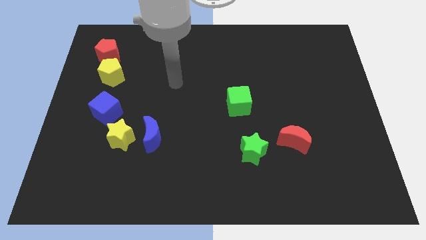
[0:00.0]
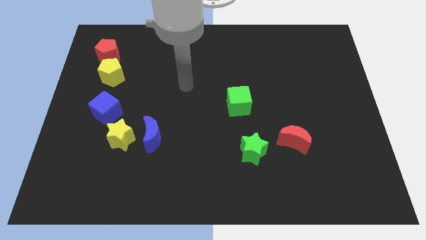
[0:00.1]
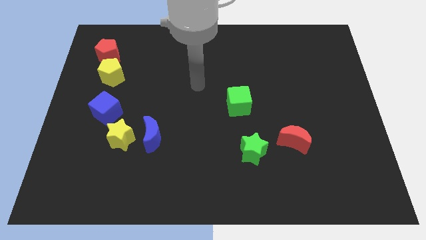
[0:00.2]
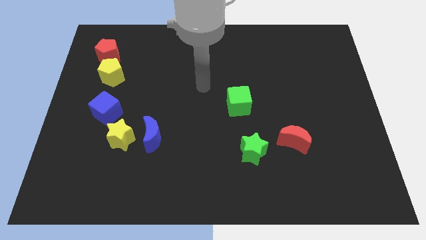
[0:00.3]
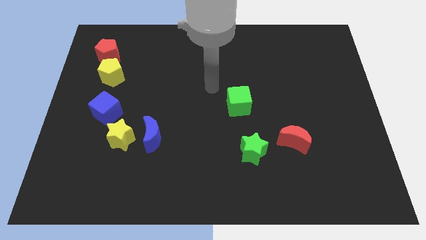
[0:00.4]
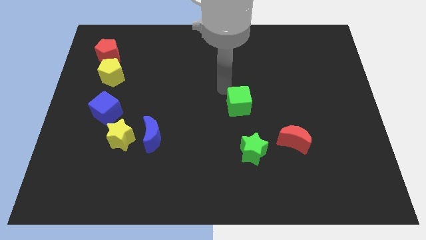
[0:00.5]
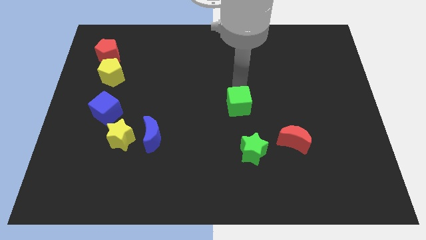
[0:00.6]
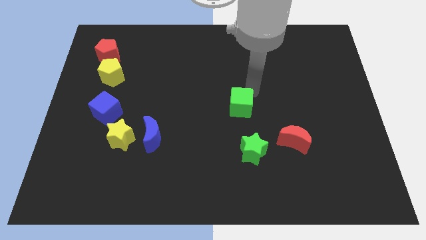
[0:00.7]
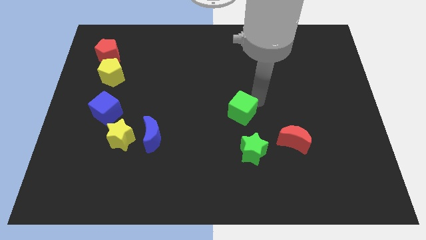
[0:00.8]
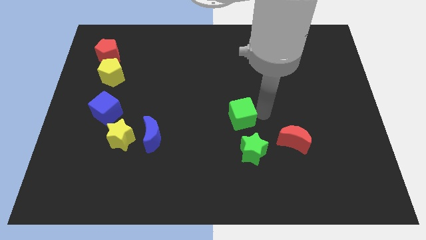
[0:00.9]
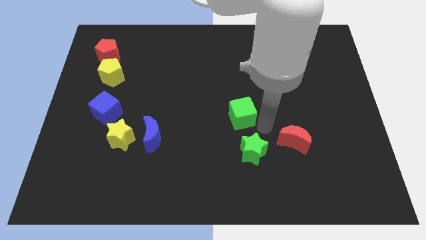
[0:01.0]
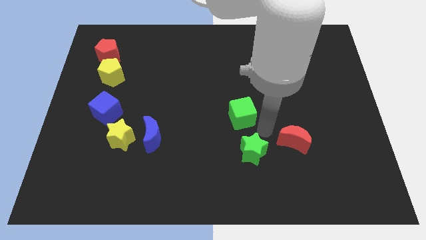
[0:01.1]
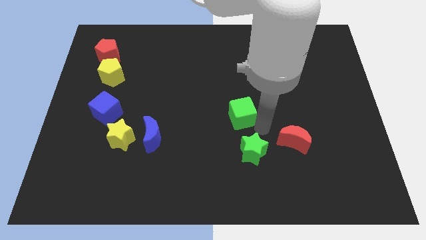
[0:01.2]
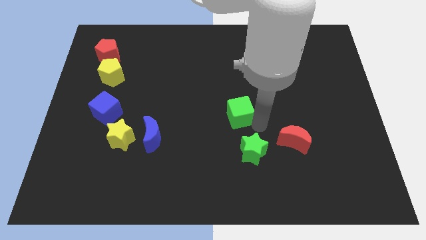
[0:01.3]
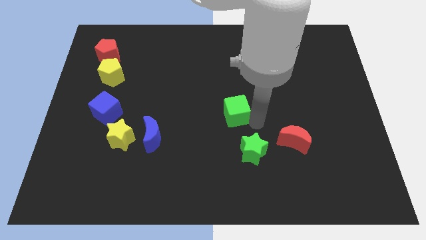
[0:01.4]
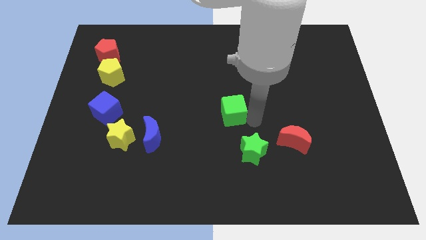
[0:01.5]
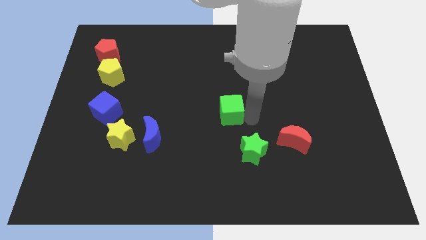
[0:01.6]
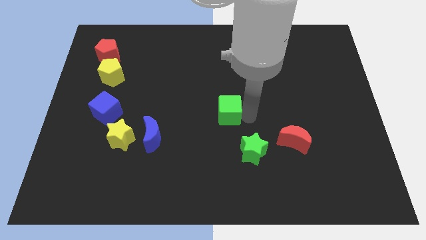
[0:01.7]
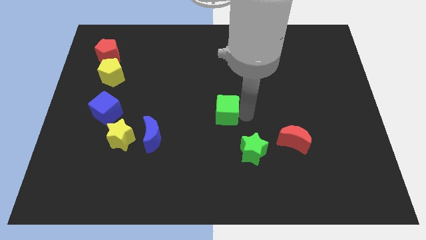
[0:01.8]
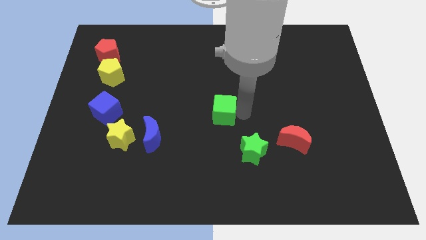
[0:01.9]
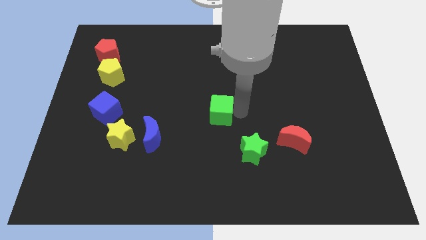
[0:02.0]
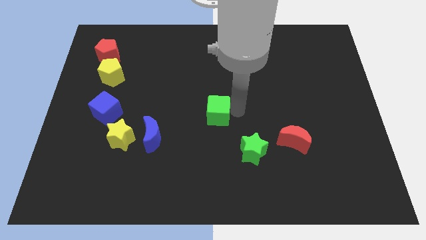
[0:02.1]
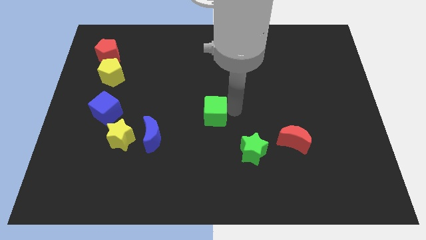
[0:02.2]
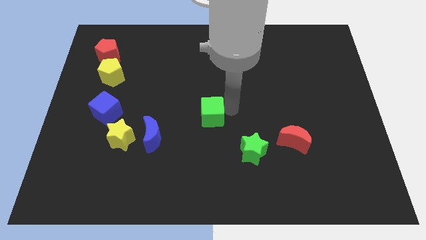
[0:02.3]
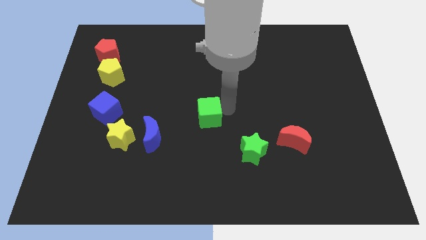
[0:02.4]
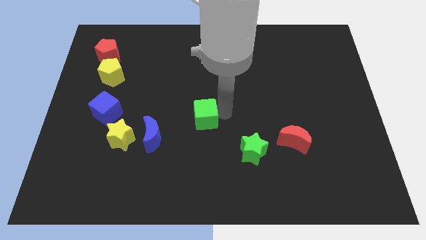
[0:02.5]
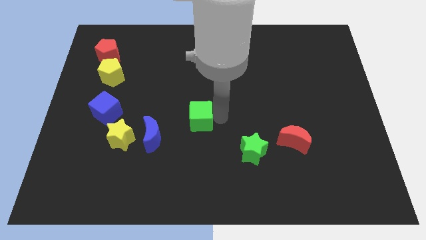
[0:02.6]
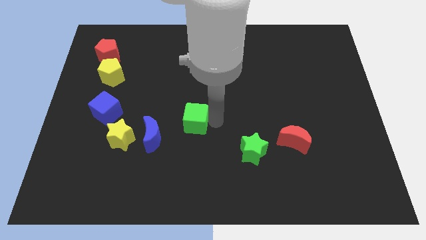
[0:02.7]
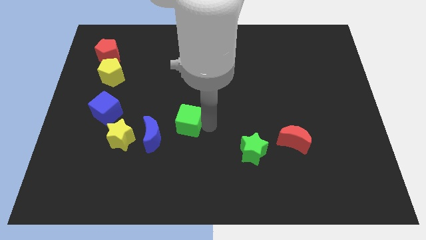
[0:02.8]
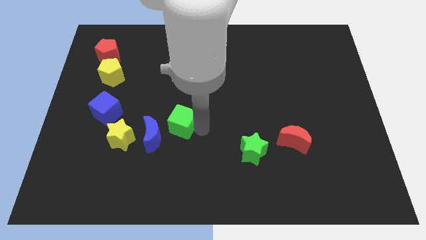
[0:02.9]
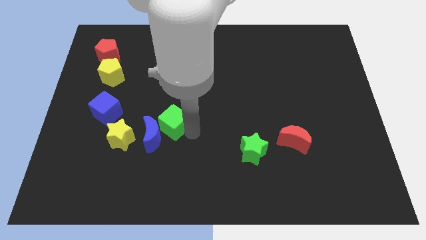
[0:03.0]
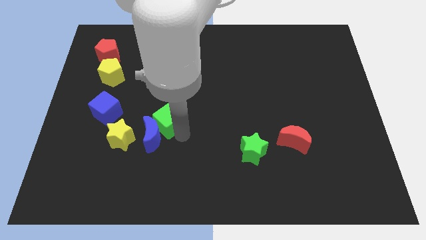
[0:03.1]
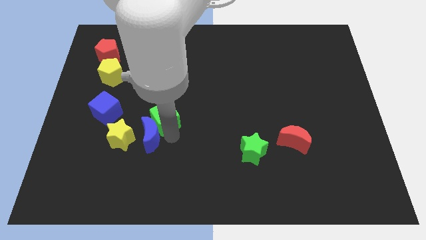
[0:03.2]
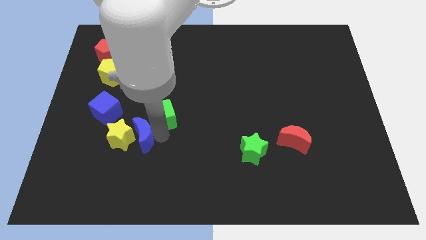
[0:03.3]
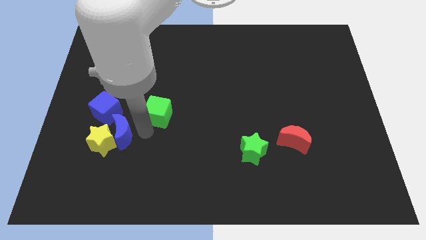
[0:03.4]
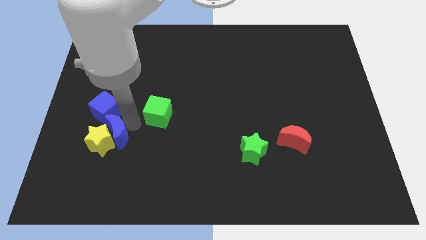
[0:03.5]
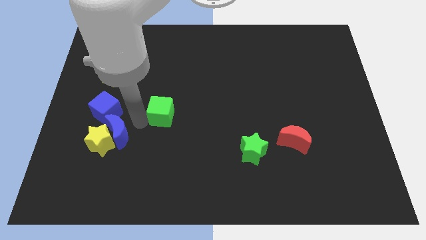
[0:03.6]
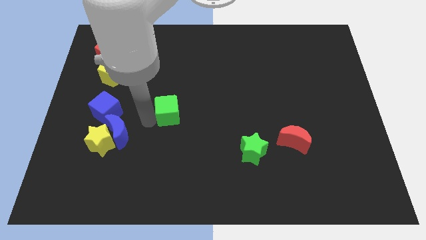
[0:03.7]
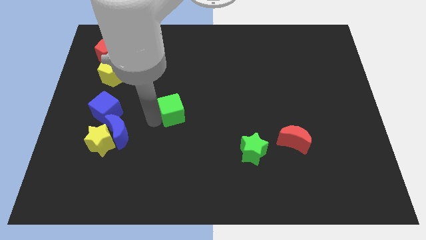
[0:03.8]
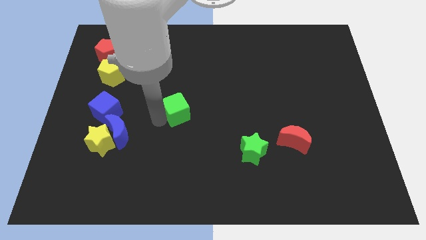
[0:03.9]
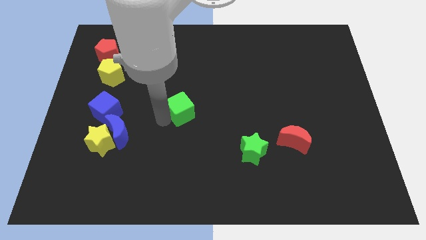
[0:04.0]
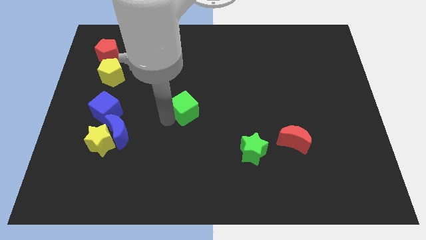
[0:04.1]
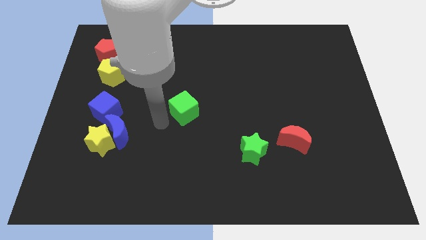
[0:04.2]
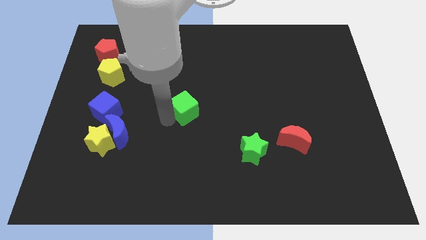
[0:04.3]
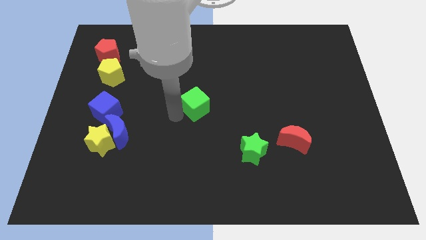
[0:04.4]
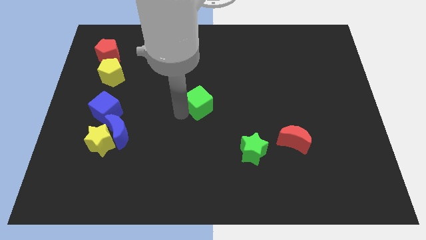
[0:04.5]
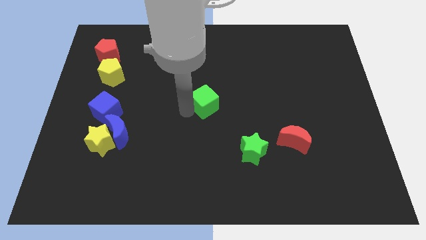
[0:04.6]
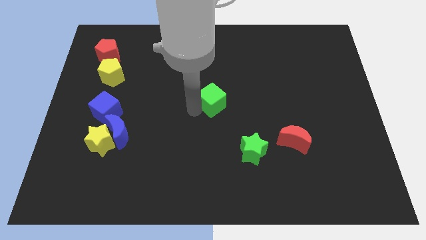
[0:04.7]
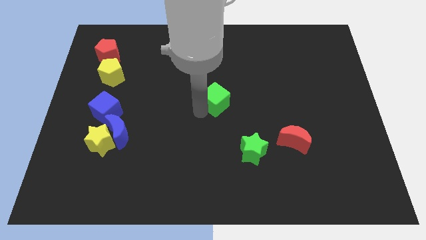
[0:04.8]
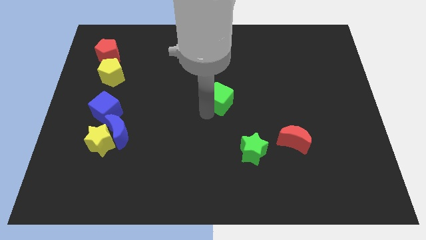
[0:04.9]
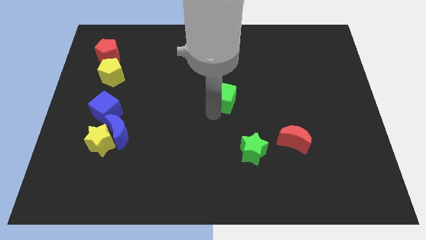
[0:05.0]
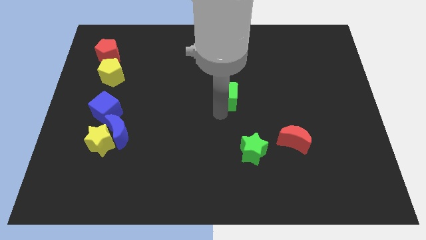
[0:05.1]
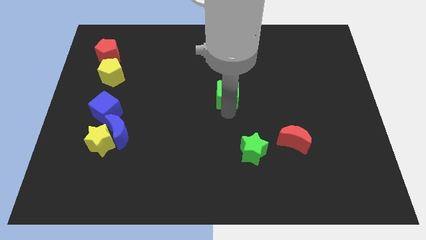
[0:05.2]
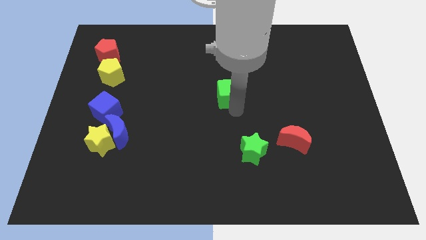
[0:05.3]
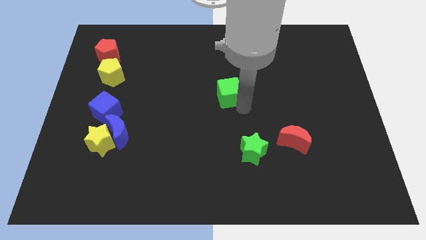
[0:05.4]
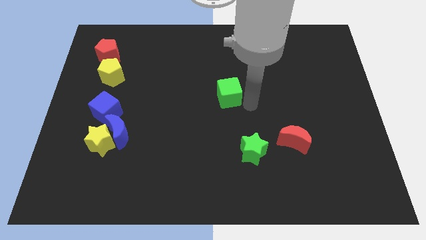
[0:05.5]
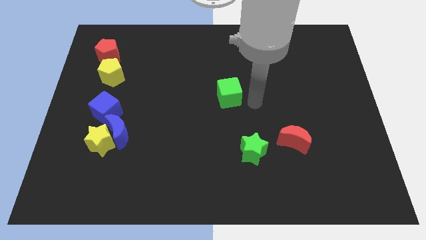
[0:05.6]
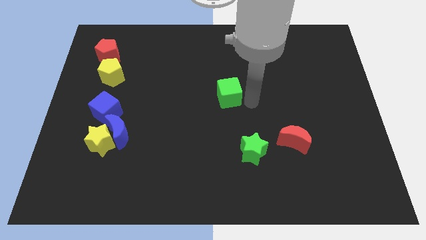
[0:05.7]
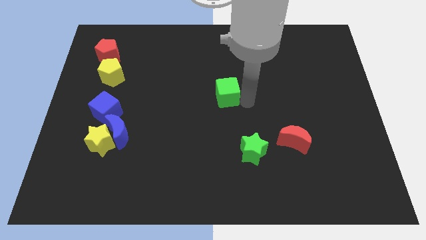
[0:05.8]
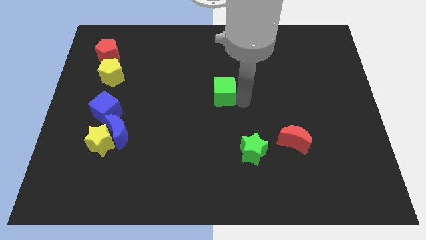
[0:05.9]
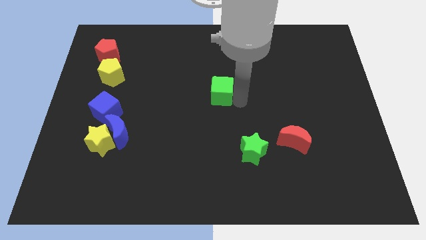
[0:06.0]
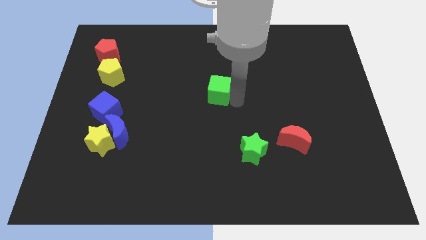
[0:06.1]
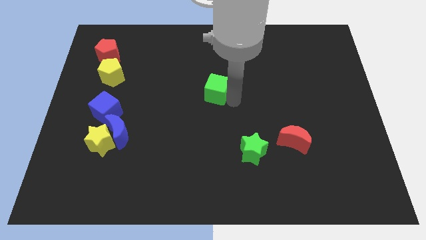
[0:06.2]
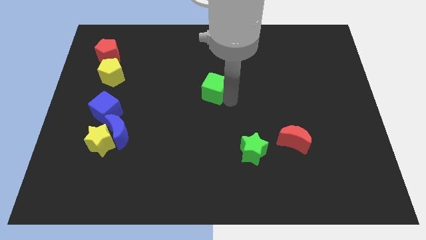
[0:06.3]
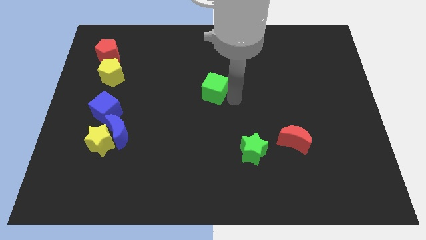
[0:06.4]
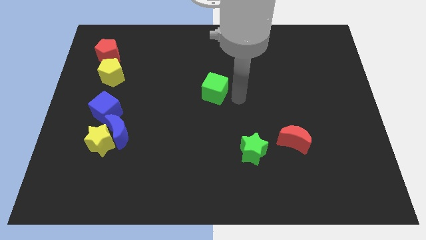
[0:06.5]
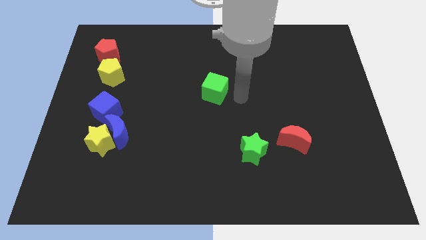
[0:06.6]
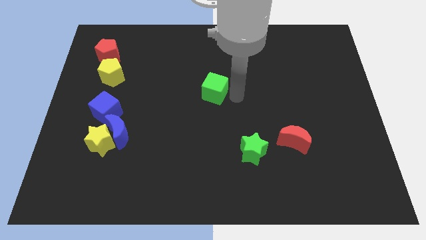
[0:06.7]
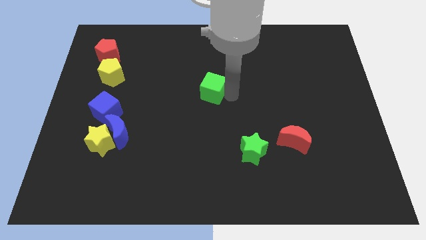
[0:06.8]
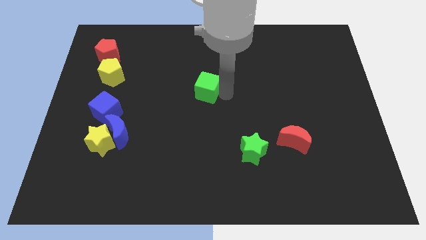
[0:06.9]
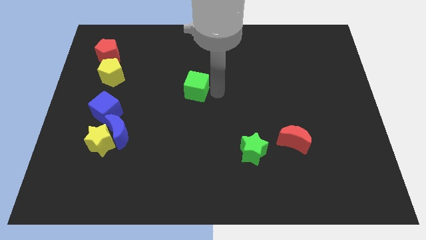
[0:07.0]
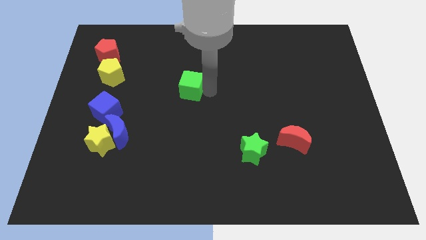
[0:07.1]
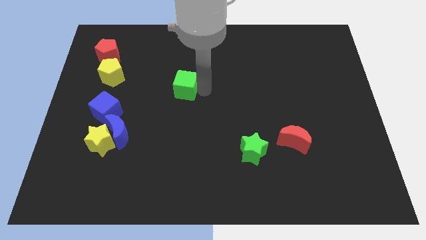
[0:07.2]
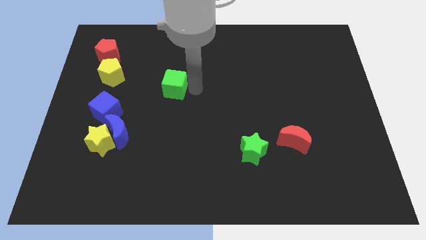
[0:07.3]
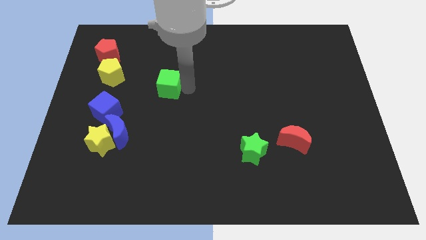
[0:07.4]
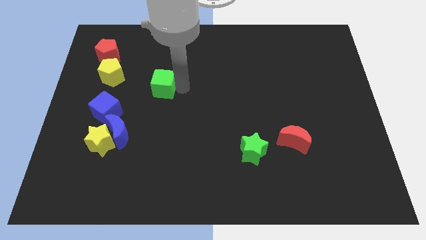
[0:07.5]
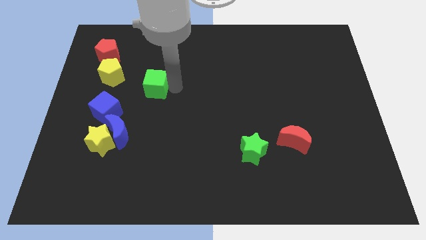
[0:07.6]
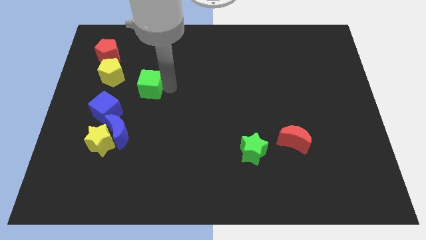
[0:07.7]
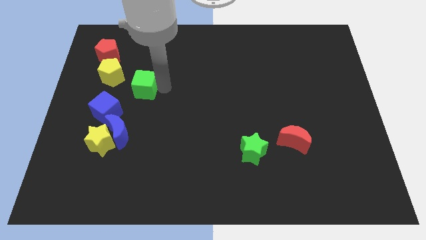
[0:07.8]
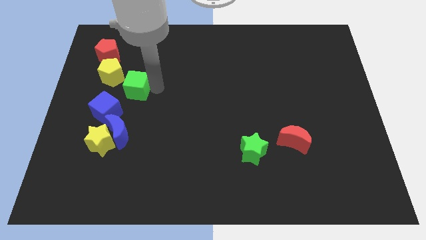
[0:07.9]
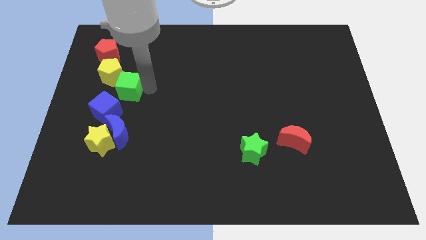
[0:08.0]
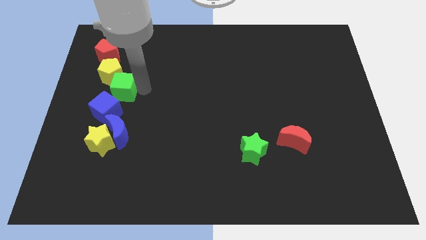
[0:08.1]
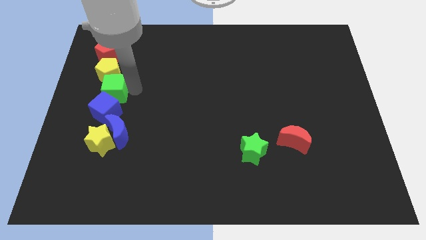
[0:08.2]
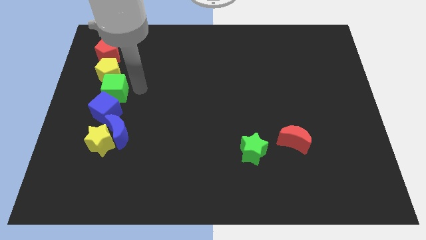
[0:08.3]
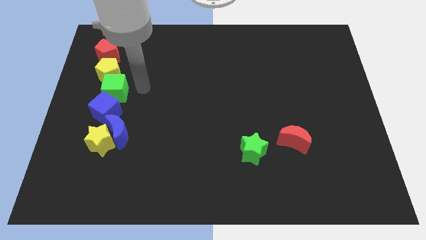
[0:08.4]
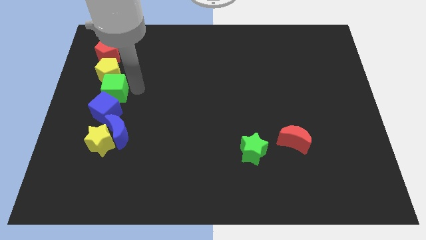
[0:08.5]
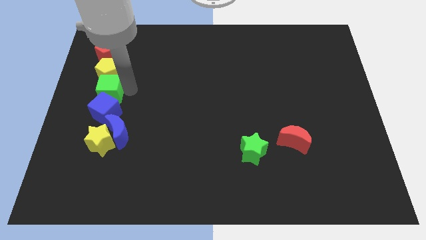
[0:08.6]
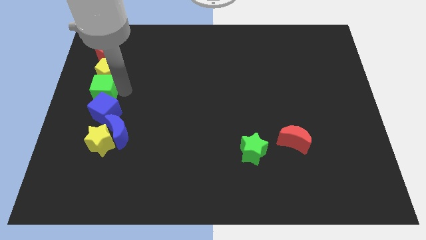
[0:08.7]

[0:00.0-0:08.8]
slide the green cube to the center left
